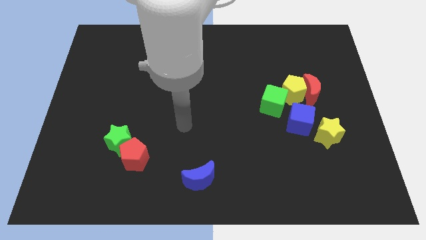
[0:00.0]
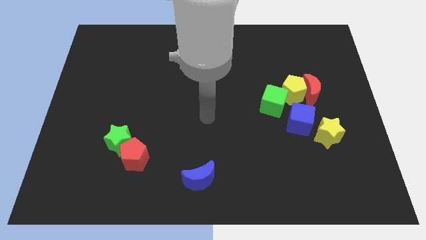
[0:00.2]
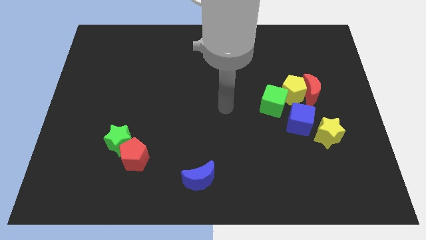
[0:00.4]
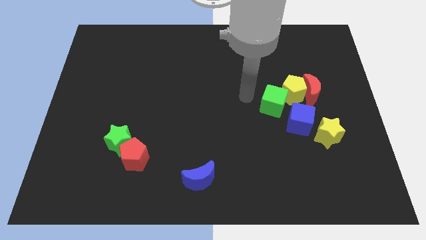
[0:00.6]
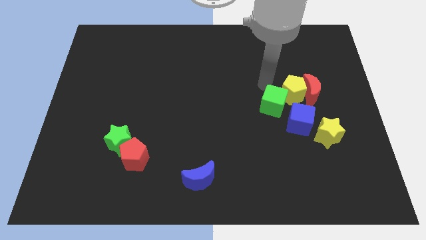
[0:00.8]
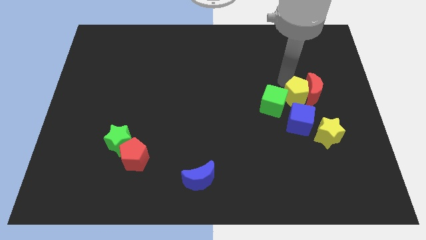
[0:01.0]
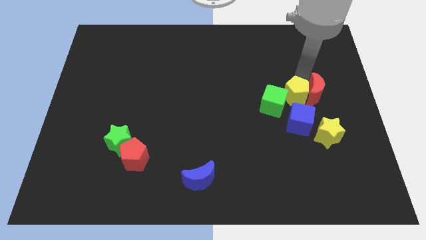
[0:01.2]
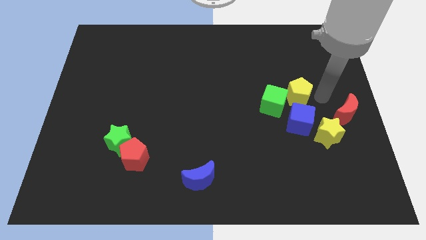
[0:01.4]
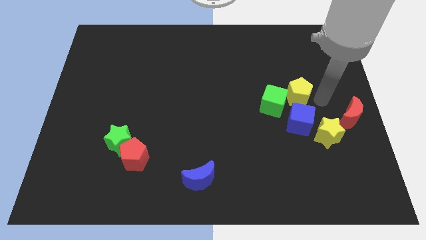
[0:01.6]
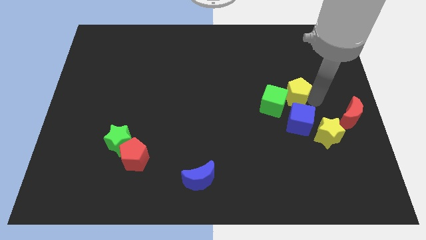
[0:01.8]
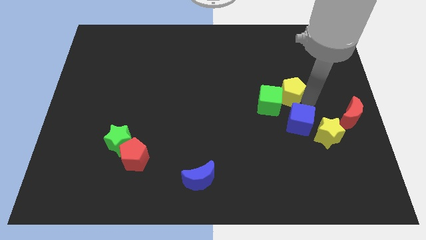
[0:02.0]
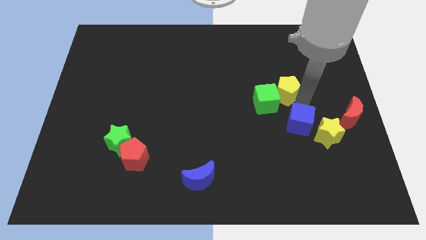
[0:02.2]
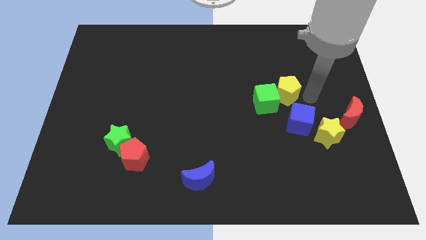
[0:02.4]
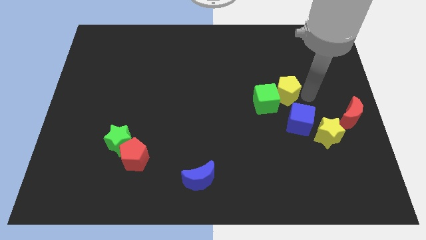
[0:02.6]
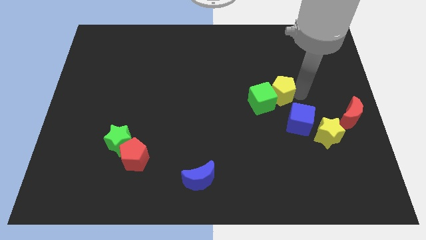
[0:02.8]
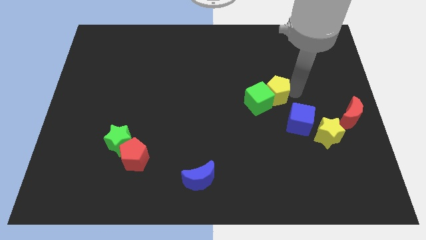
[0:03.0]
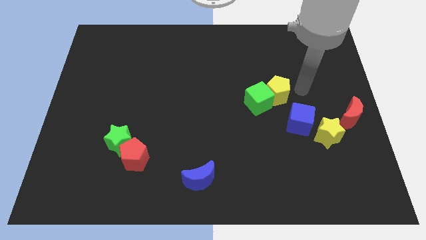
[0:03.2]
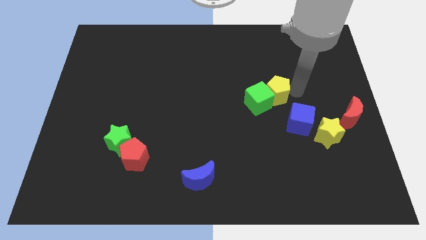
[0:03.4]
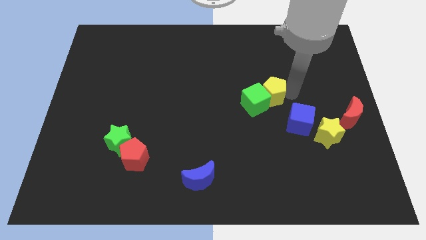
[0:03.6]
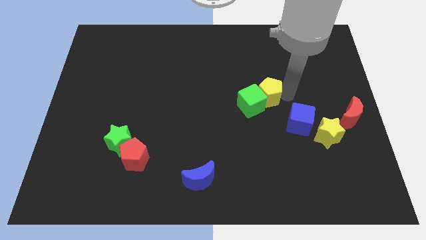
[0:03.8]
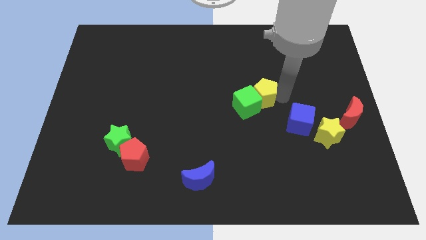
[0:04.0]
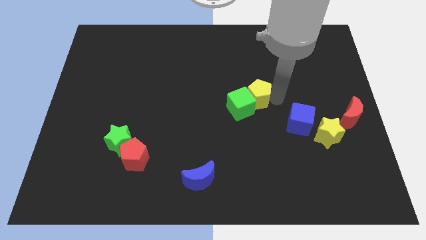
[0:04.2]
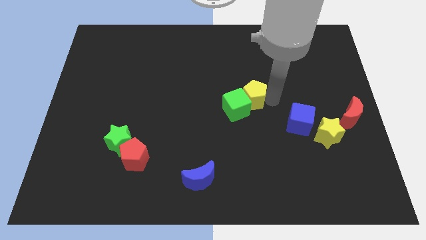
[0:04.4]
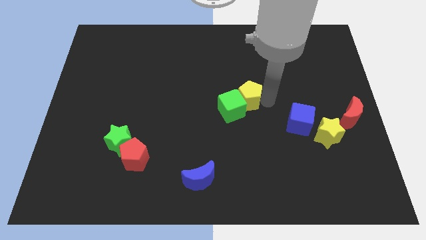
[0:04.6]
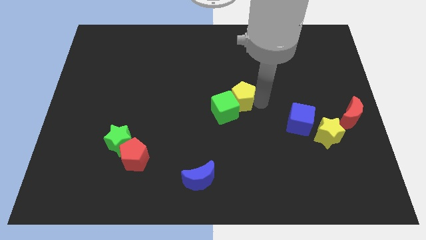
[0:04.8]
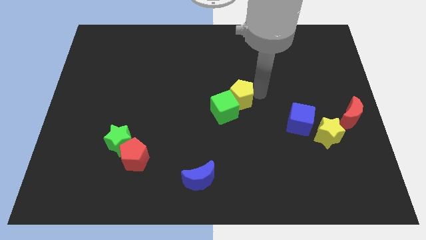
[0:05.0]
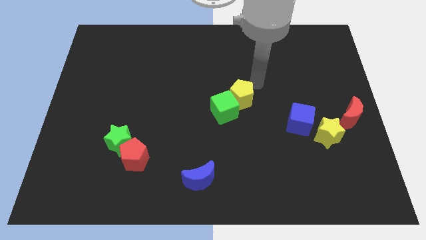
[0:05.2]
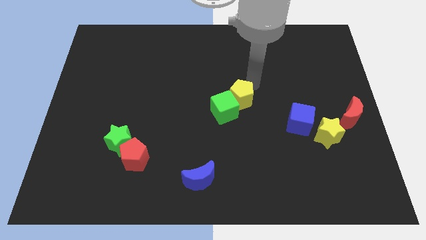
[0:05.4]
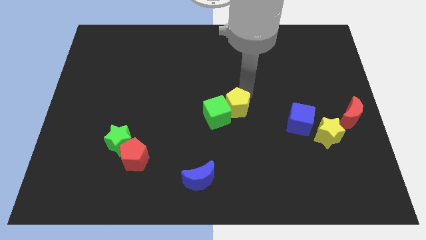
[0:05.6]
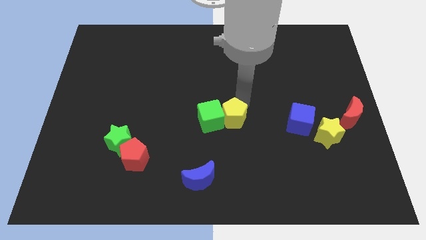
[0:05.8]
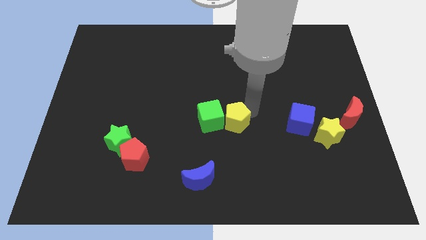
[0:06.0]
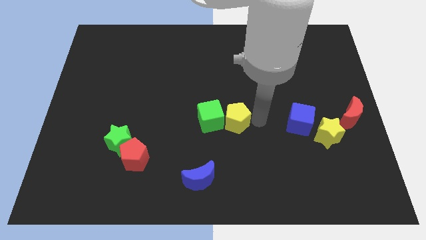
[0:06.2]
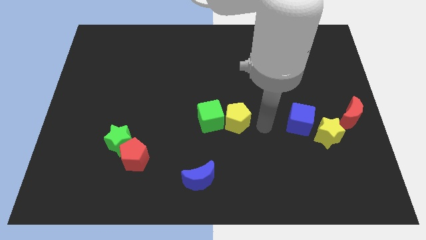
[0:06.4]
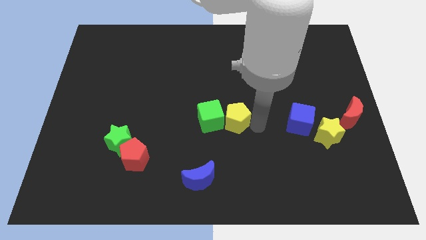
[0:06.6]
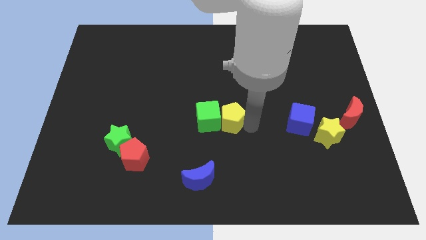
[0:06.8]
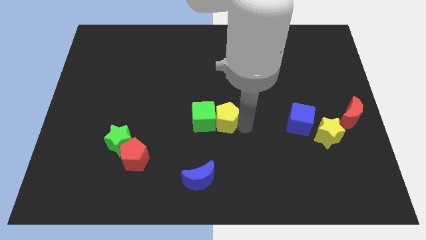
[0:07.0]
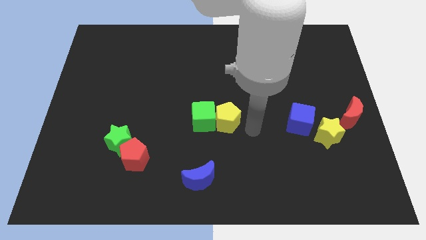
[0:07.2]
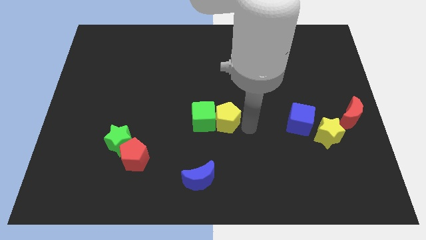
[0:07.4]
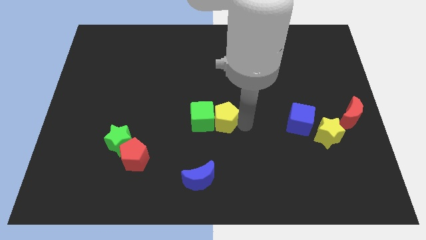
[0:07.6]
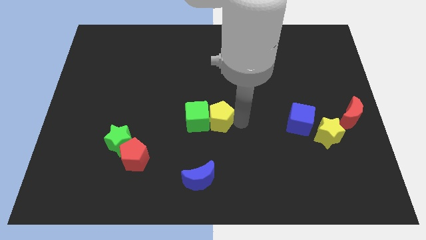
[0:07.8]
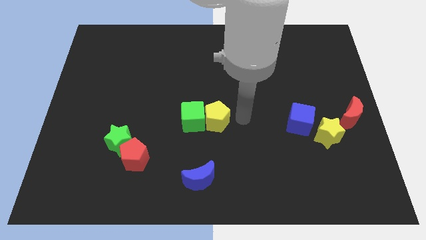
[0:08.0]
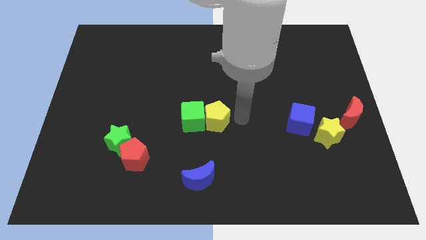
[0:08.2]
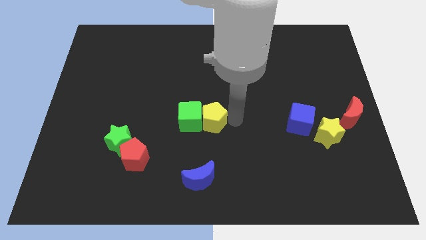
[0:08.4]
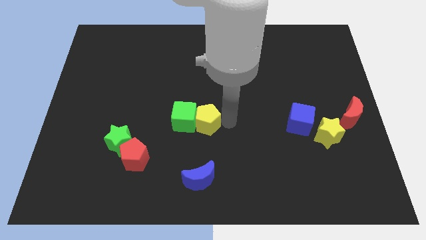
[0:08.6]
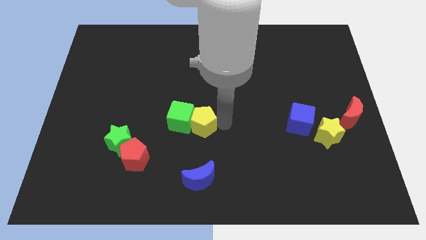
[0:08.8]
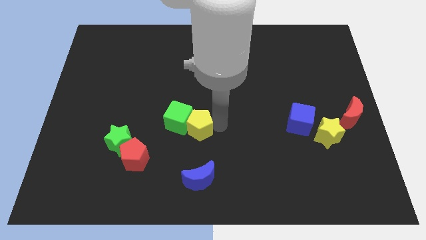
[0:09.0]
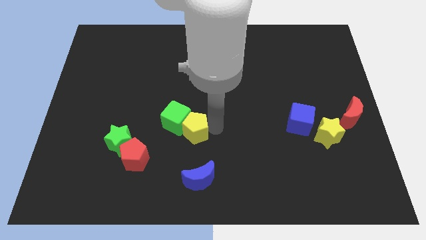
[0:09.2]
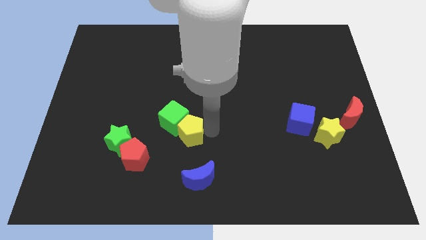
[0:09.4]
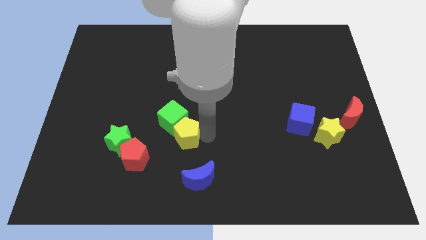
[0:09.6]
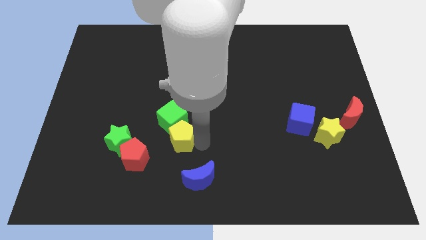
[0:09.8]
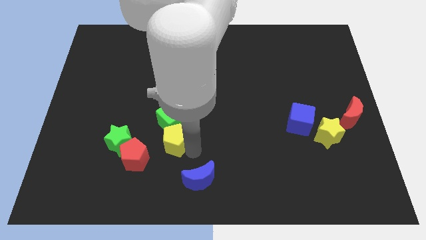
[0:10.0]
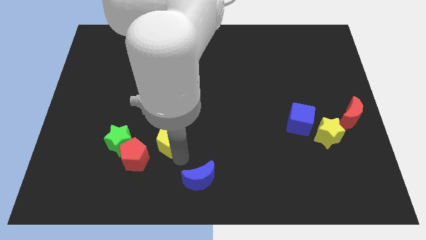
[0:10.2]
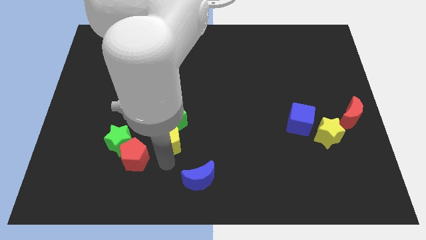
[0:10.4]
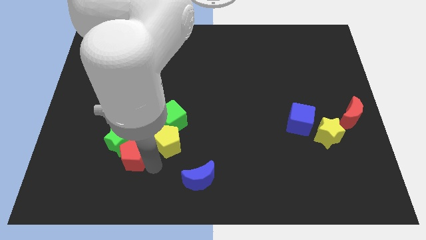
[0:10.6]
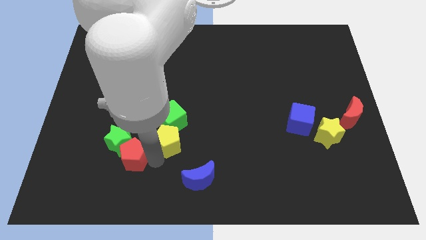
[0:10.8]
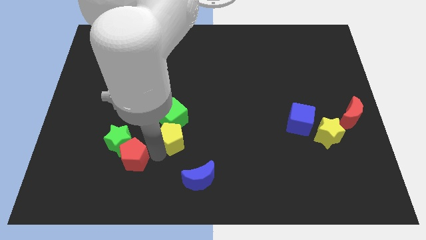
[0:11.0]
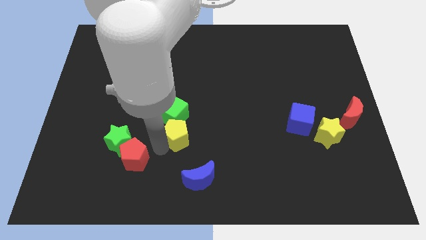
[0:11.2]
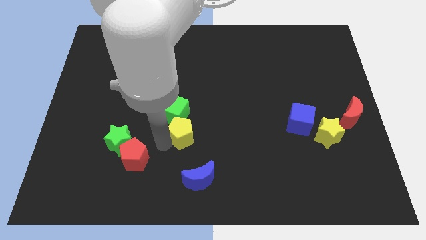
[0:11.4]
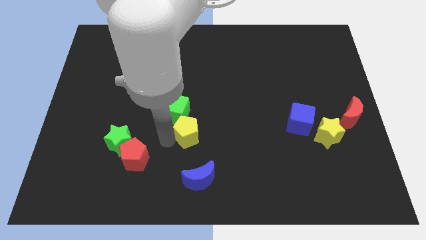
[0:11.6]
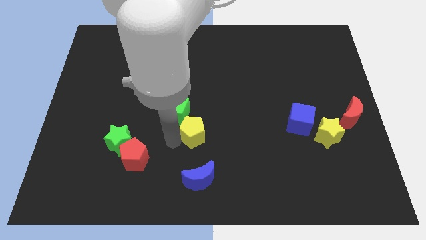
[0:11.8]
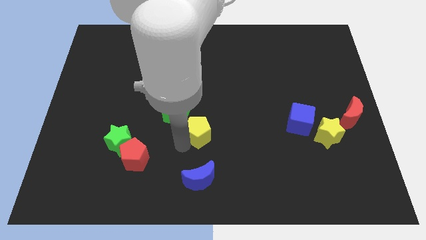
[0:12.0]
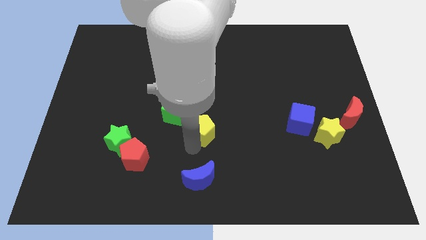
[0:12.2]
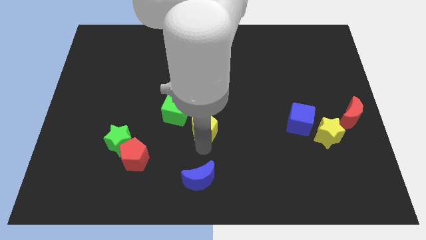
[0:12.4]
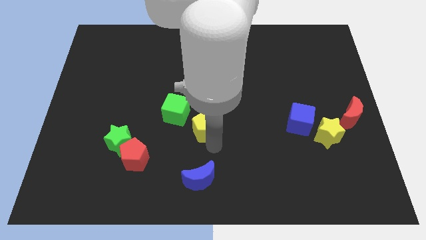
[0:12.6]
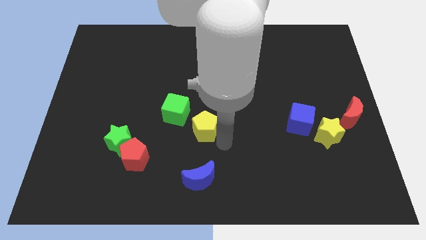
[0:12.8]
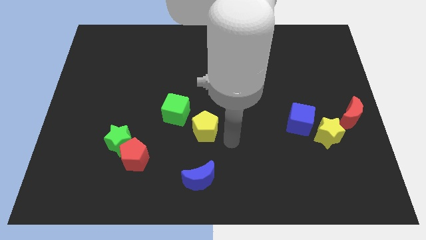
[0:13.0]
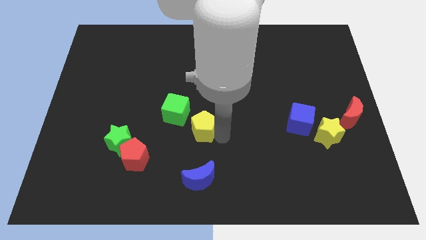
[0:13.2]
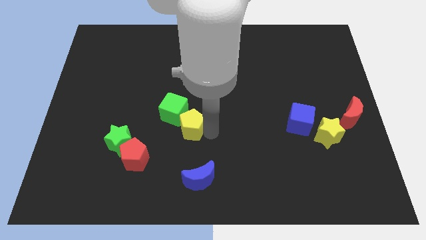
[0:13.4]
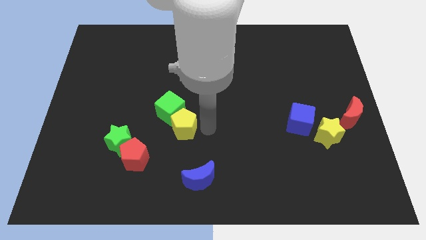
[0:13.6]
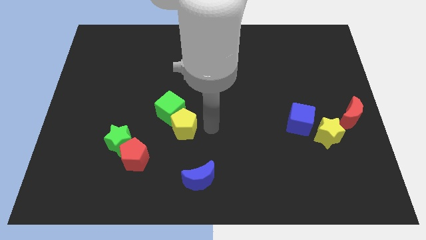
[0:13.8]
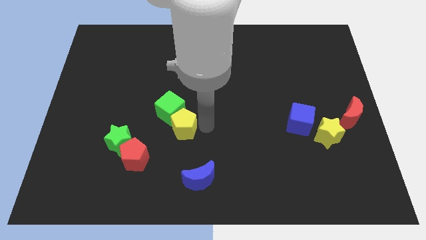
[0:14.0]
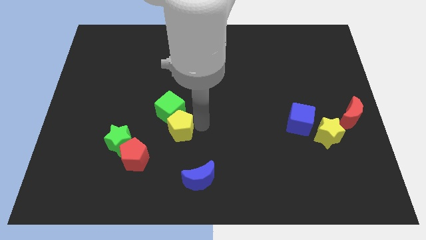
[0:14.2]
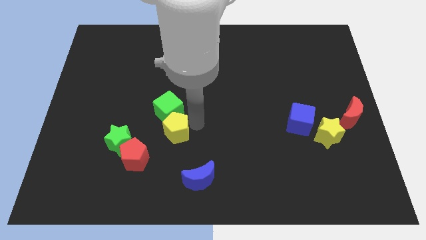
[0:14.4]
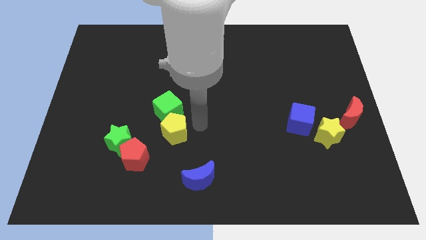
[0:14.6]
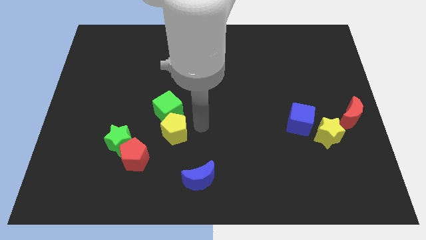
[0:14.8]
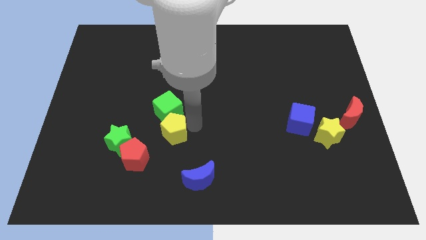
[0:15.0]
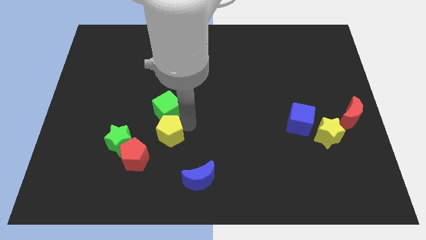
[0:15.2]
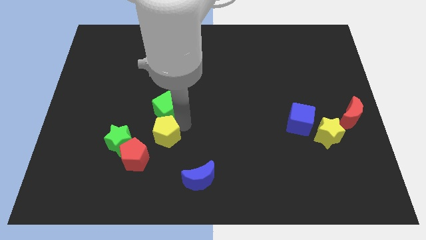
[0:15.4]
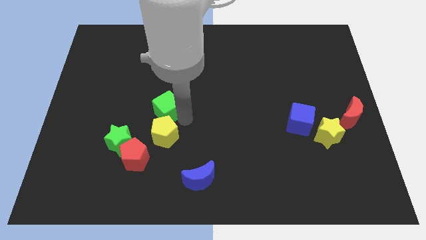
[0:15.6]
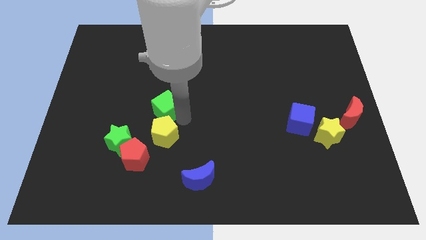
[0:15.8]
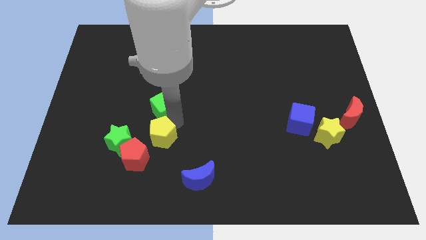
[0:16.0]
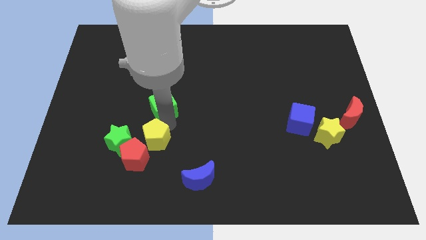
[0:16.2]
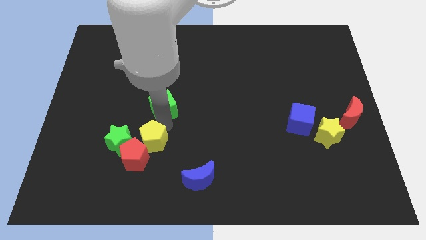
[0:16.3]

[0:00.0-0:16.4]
put the yellow pentagon to the red pentagon
